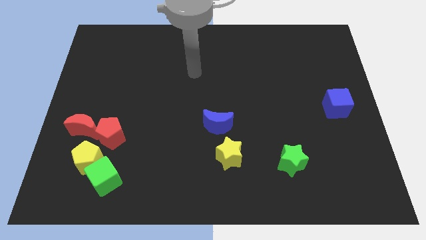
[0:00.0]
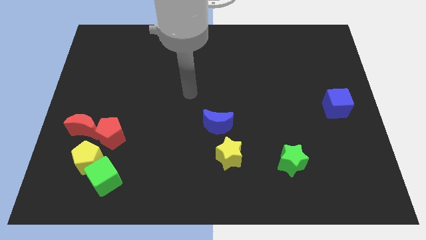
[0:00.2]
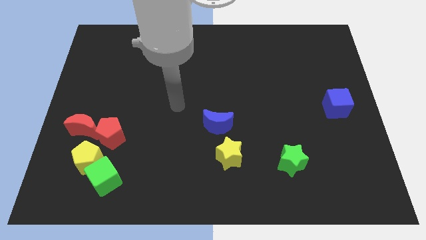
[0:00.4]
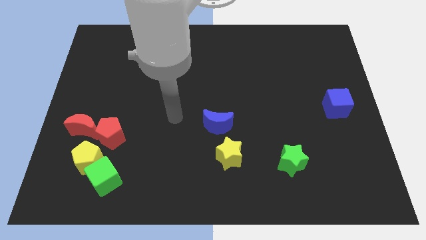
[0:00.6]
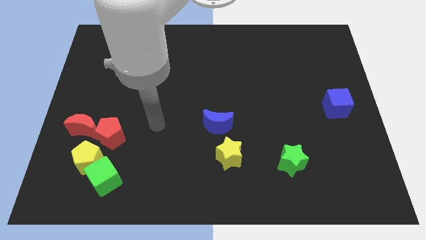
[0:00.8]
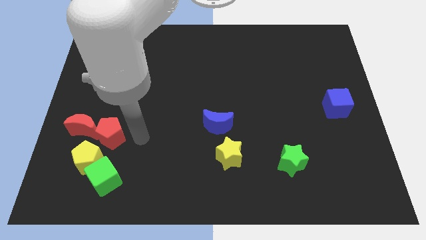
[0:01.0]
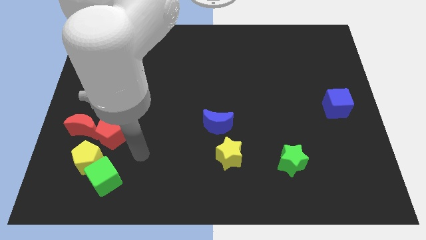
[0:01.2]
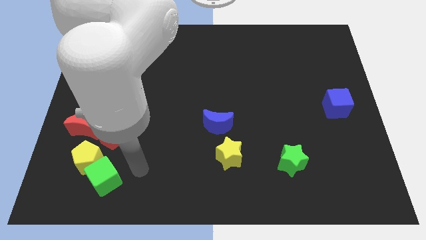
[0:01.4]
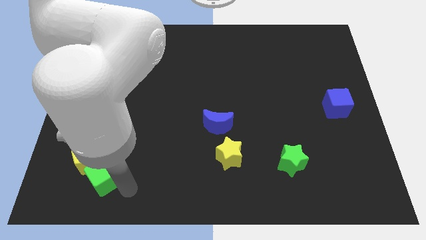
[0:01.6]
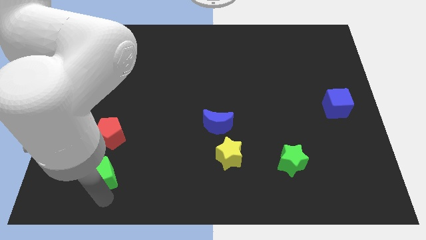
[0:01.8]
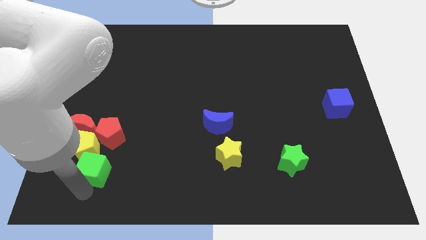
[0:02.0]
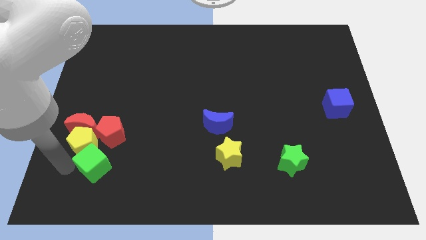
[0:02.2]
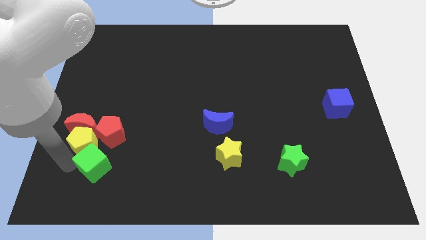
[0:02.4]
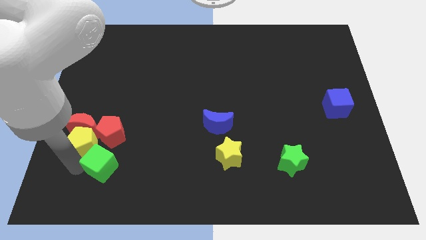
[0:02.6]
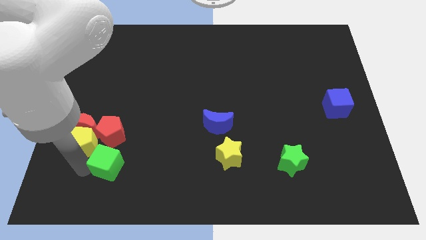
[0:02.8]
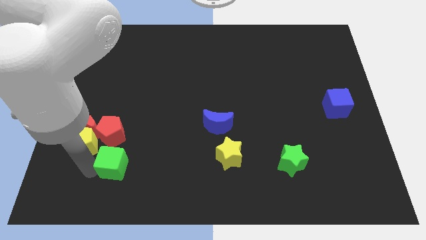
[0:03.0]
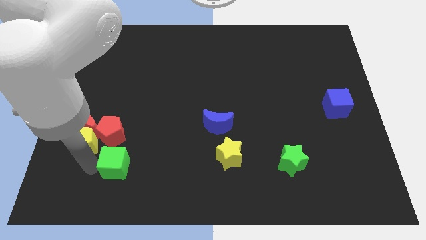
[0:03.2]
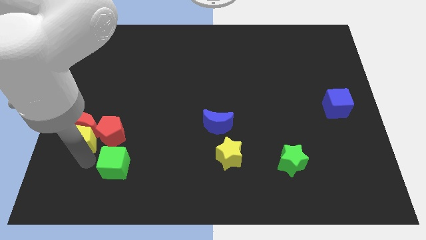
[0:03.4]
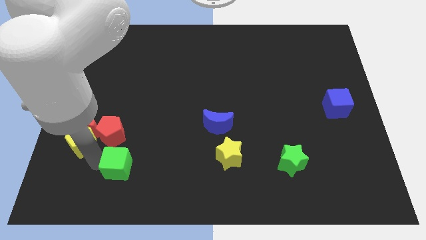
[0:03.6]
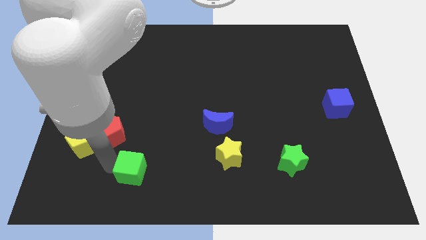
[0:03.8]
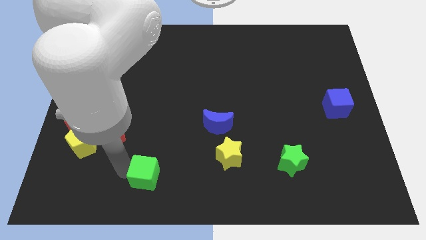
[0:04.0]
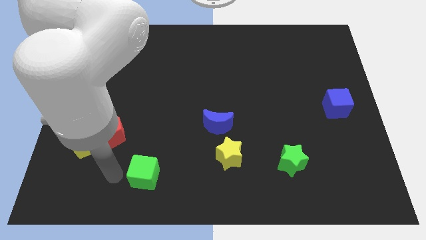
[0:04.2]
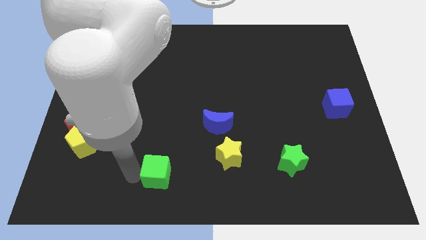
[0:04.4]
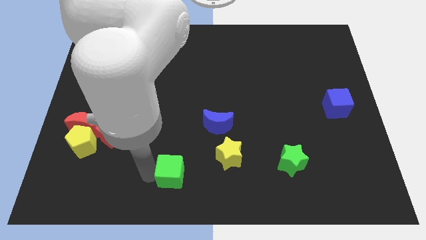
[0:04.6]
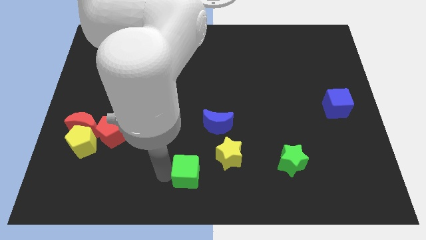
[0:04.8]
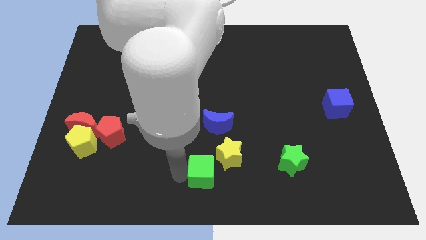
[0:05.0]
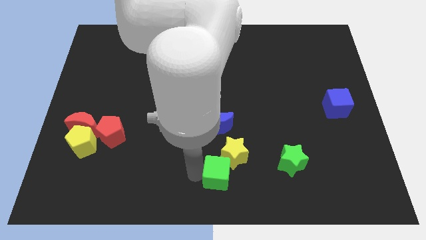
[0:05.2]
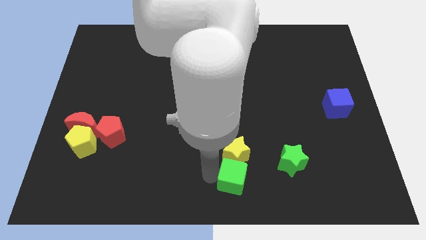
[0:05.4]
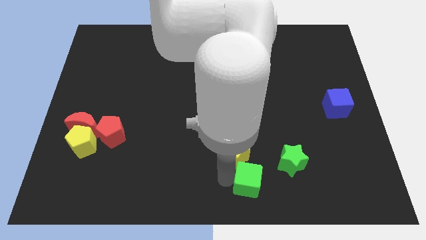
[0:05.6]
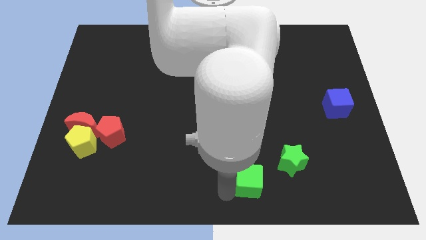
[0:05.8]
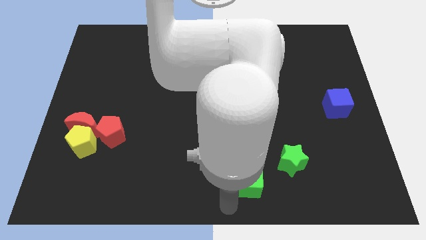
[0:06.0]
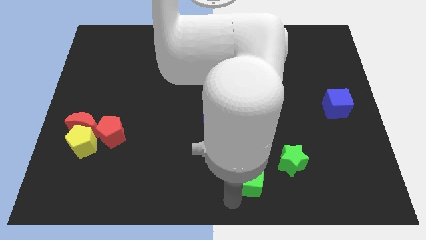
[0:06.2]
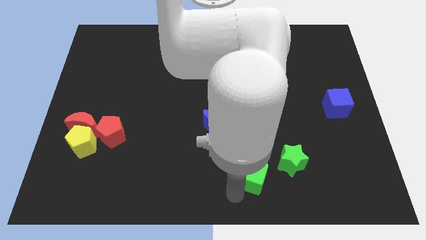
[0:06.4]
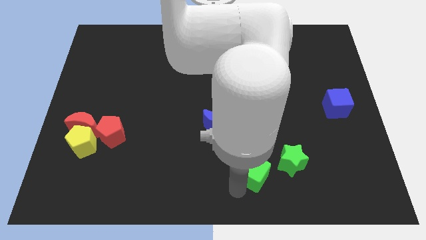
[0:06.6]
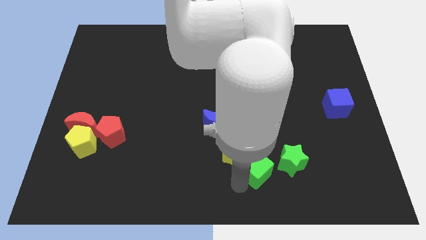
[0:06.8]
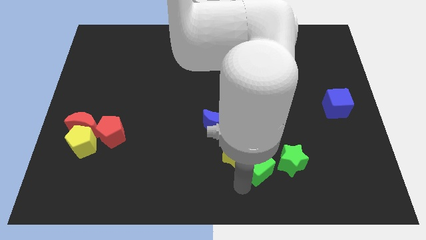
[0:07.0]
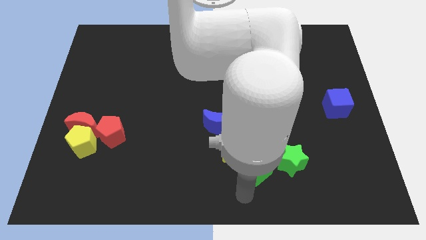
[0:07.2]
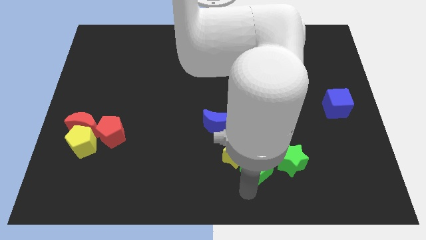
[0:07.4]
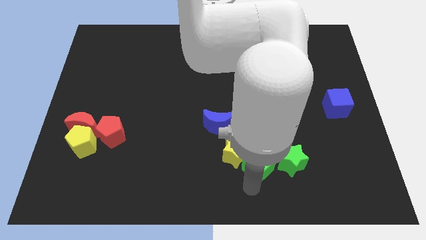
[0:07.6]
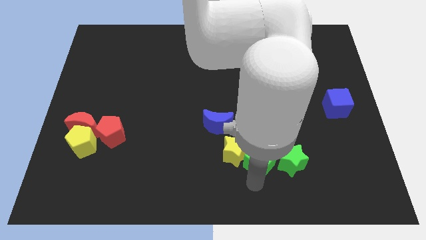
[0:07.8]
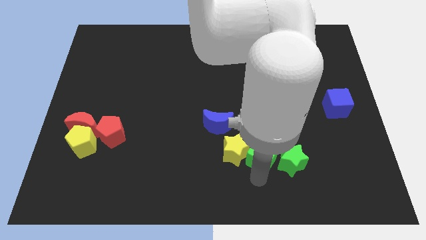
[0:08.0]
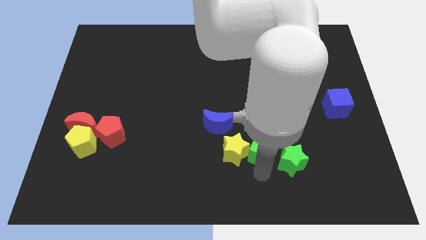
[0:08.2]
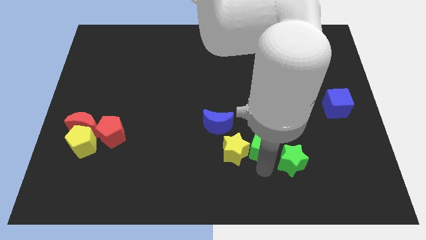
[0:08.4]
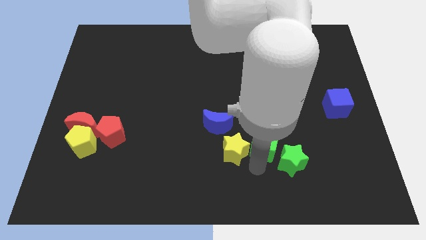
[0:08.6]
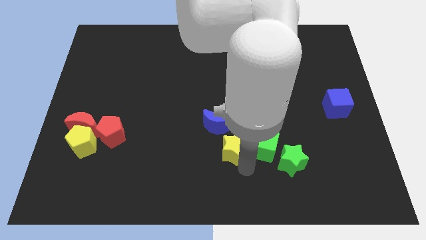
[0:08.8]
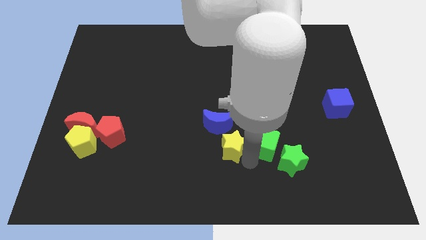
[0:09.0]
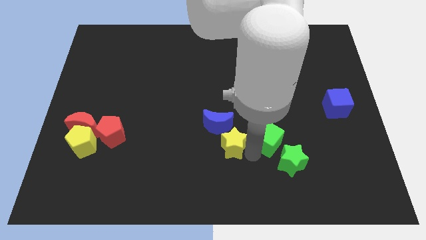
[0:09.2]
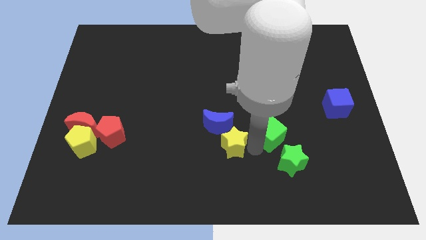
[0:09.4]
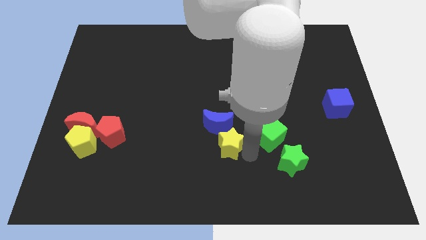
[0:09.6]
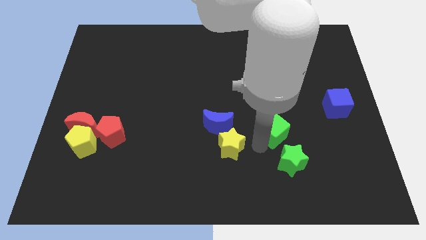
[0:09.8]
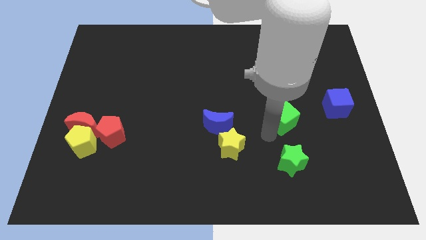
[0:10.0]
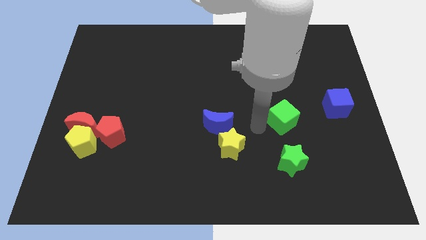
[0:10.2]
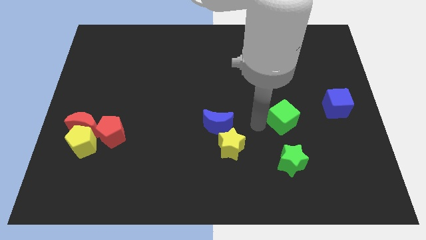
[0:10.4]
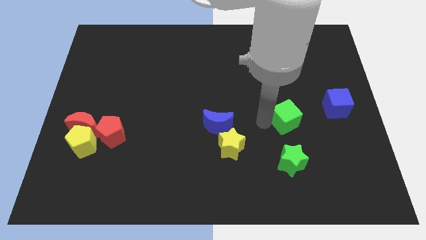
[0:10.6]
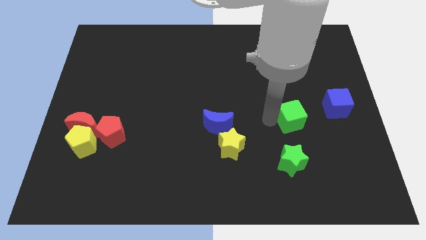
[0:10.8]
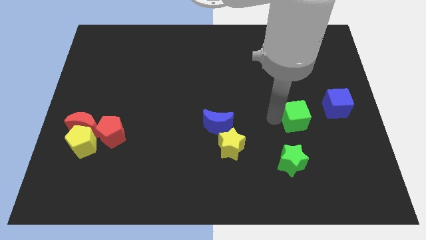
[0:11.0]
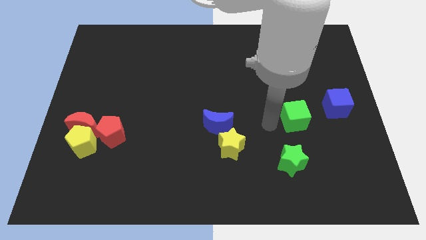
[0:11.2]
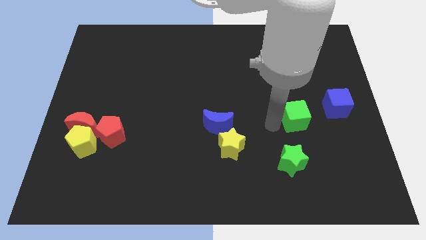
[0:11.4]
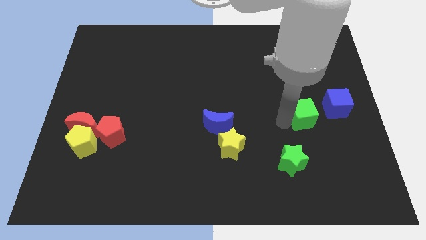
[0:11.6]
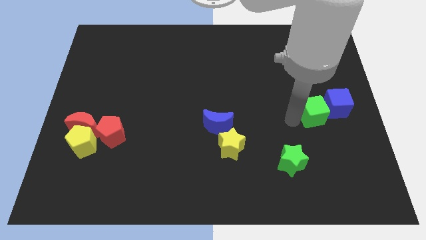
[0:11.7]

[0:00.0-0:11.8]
put the green cube towards the blue cube

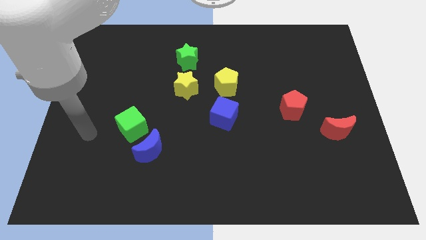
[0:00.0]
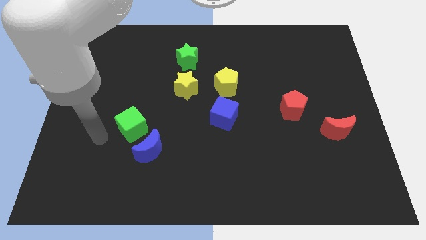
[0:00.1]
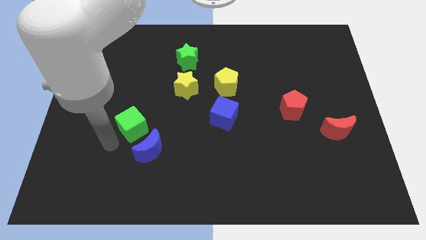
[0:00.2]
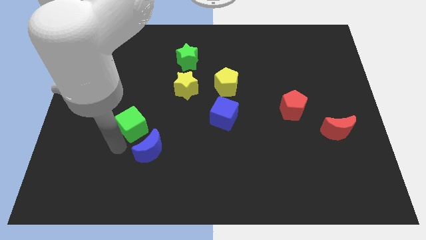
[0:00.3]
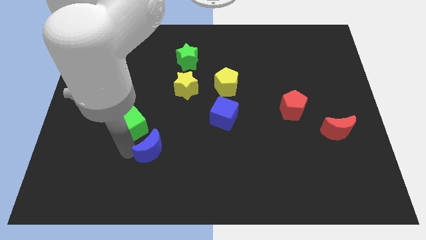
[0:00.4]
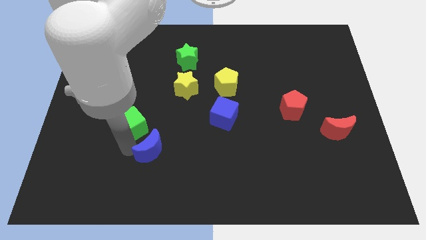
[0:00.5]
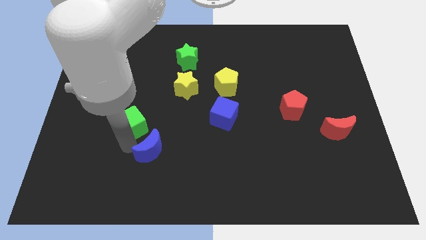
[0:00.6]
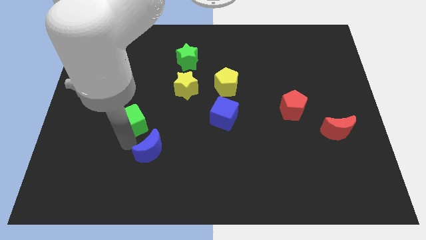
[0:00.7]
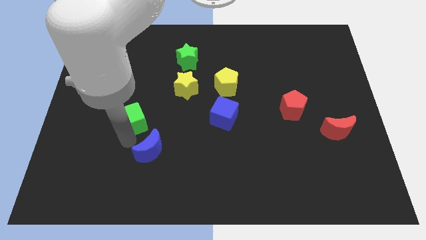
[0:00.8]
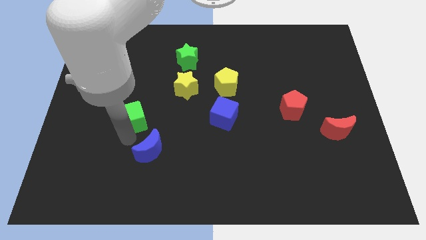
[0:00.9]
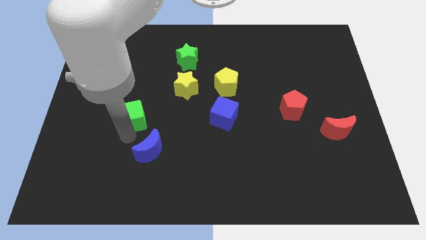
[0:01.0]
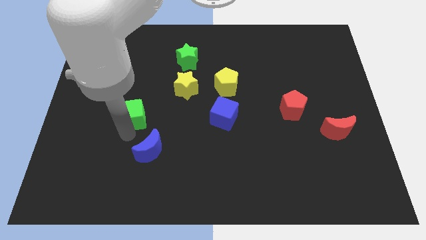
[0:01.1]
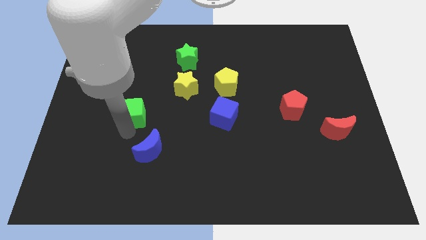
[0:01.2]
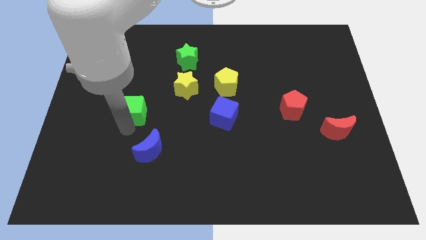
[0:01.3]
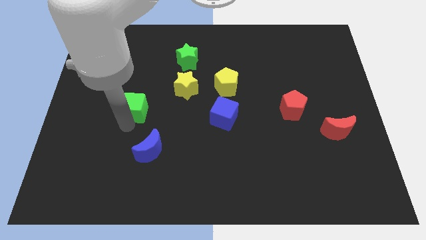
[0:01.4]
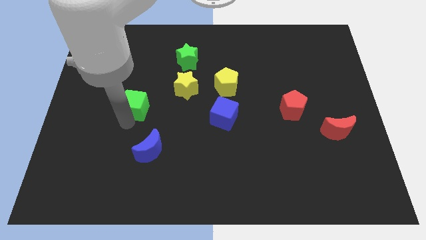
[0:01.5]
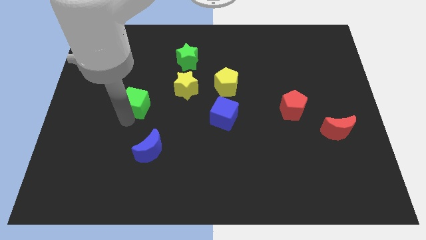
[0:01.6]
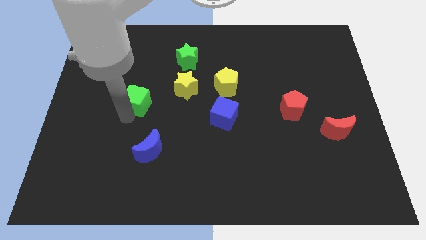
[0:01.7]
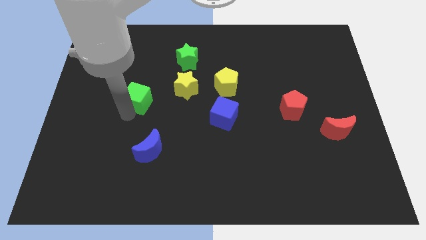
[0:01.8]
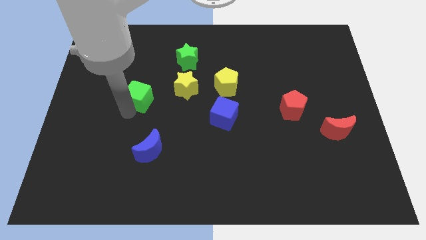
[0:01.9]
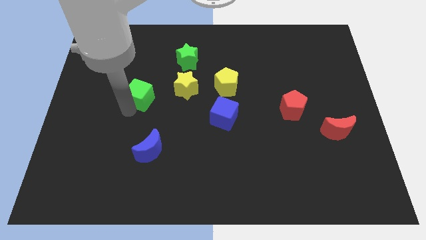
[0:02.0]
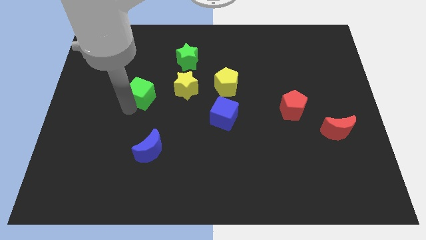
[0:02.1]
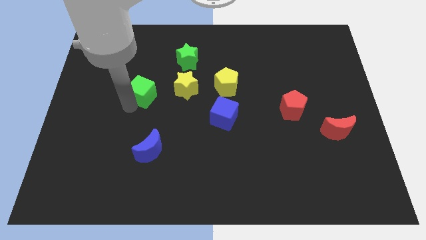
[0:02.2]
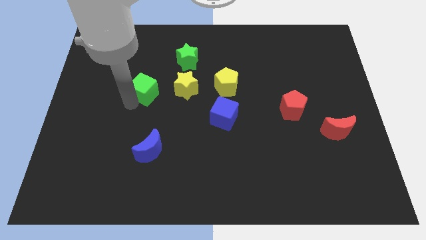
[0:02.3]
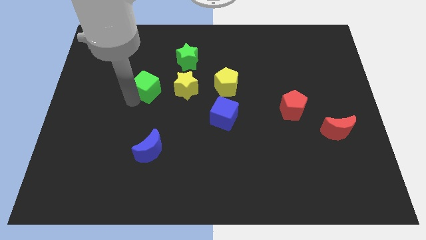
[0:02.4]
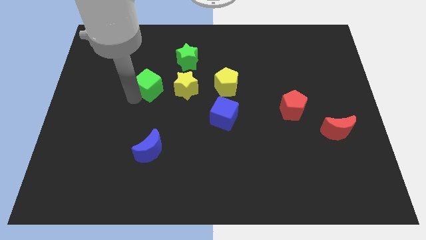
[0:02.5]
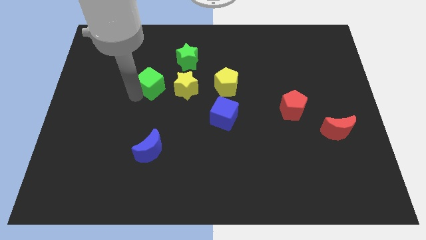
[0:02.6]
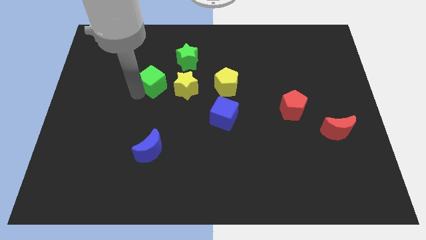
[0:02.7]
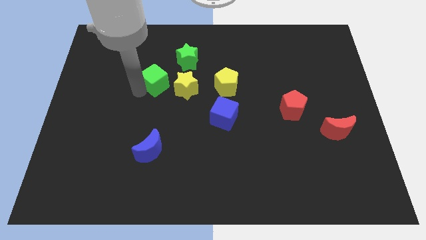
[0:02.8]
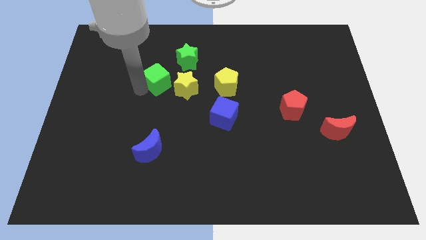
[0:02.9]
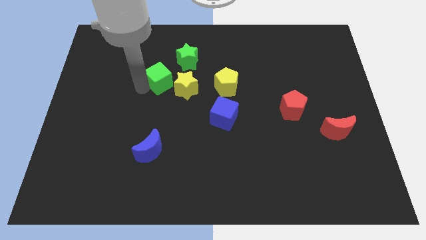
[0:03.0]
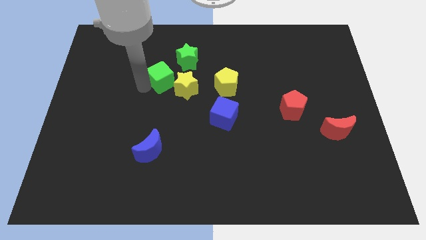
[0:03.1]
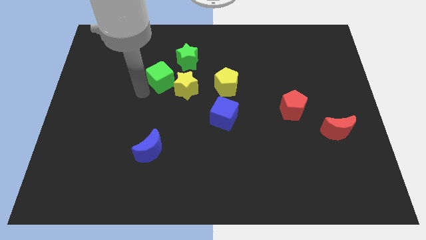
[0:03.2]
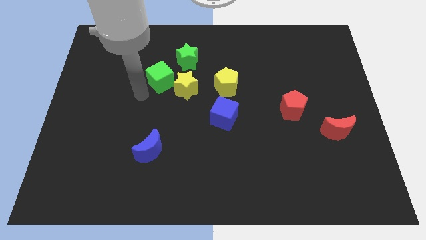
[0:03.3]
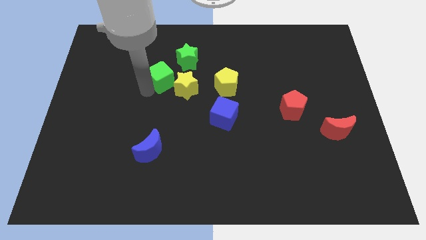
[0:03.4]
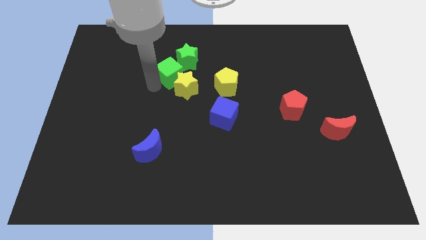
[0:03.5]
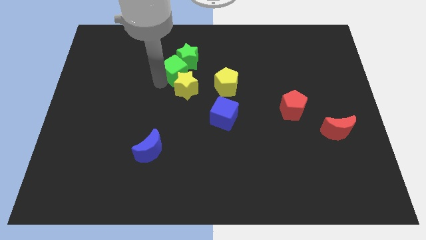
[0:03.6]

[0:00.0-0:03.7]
push the green cube to the green star
